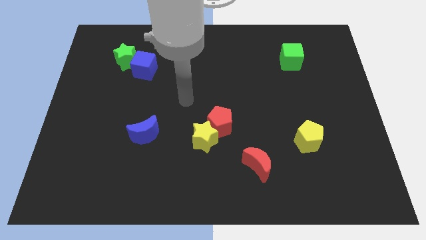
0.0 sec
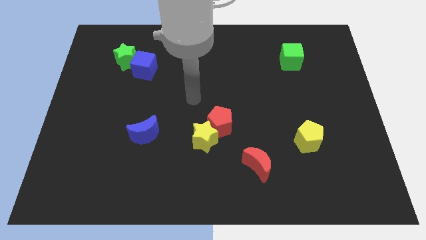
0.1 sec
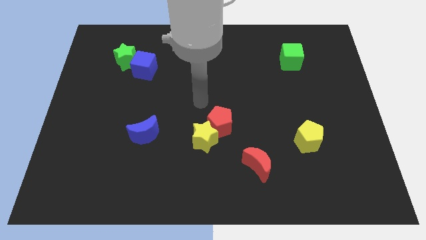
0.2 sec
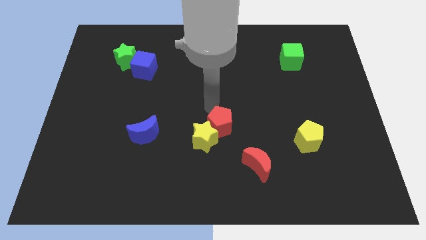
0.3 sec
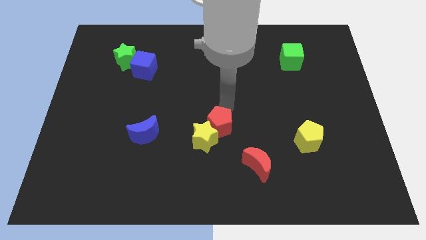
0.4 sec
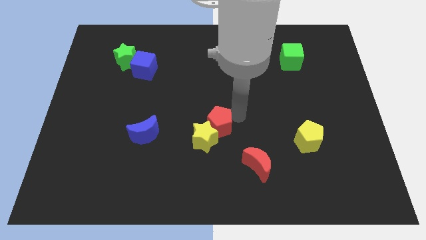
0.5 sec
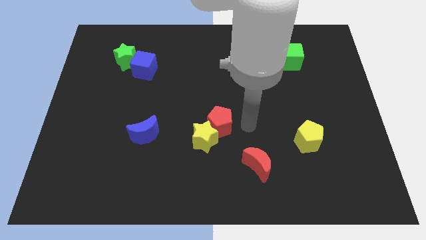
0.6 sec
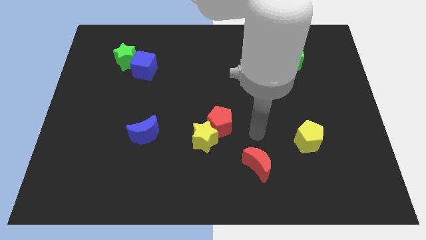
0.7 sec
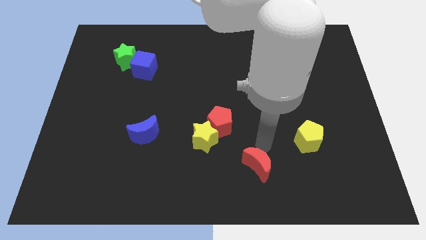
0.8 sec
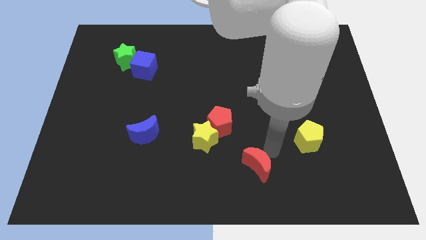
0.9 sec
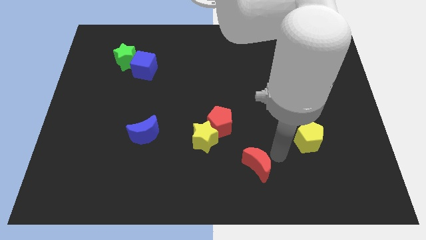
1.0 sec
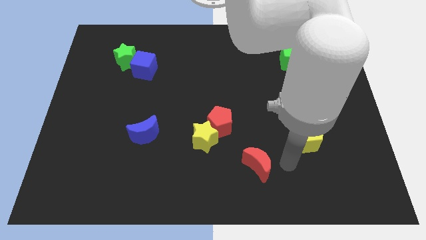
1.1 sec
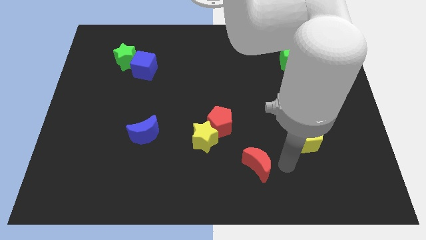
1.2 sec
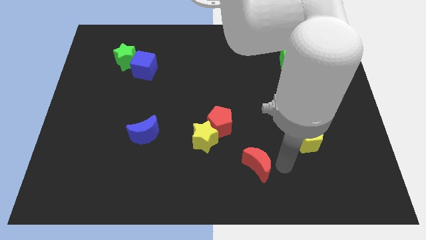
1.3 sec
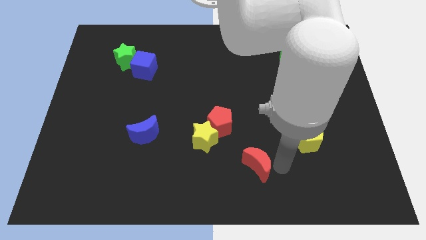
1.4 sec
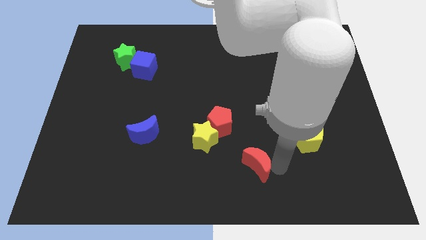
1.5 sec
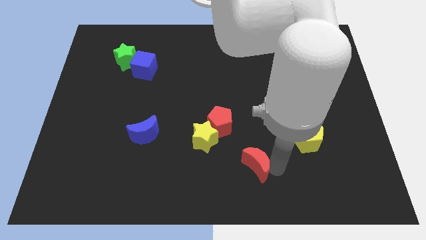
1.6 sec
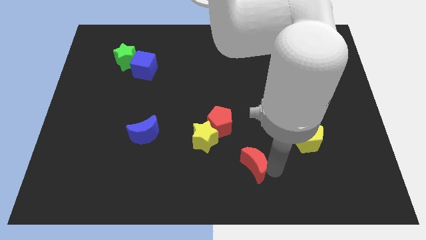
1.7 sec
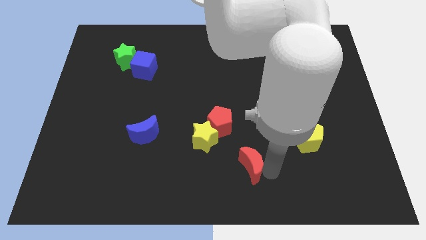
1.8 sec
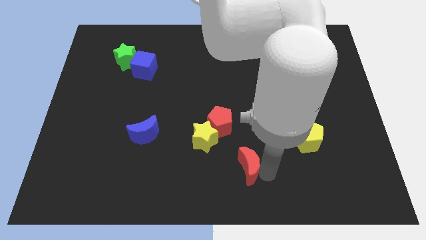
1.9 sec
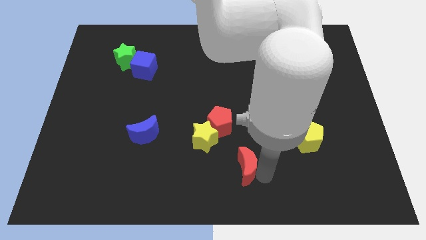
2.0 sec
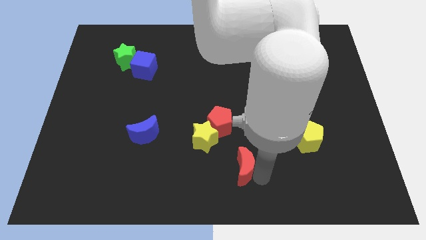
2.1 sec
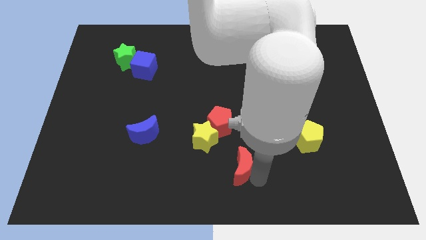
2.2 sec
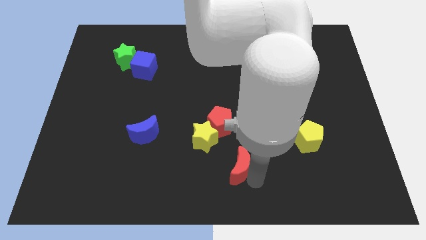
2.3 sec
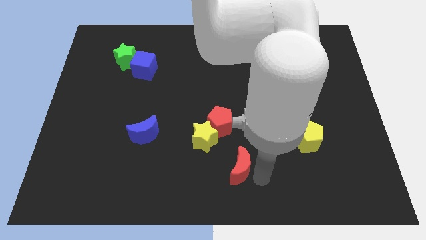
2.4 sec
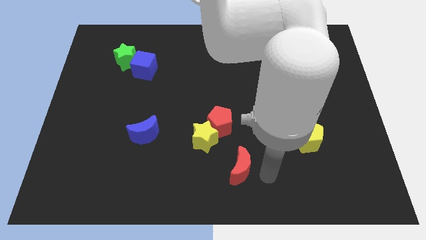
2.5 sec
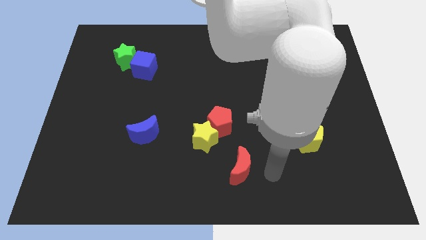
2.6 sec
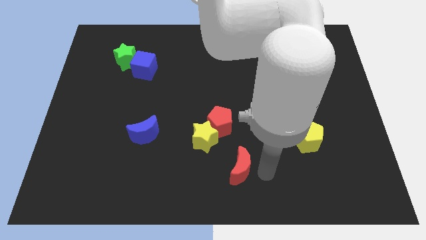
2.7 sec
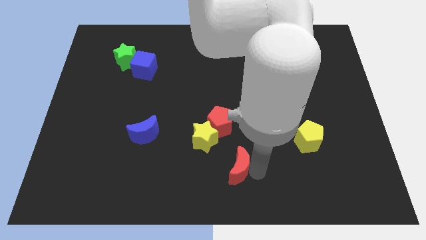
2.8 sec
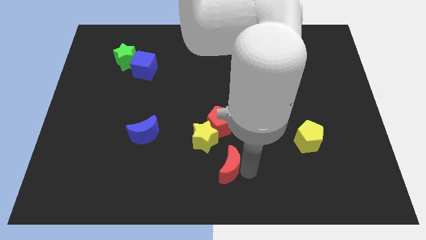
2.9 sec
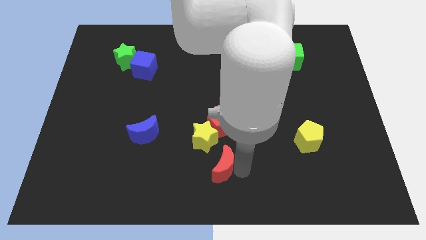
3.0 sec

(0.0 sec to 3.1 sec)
slide the red moon to the left somewhat

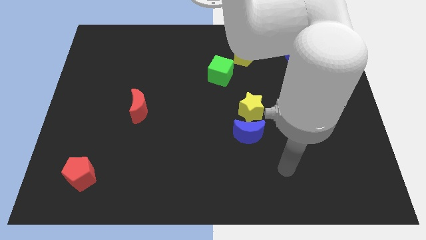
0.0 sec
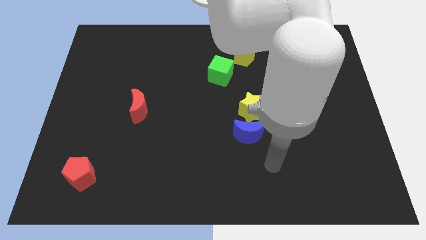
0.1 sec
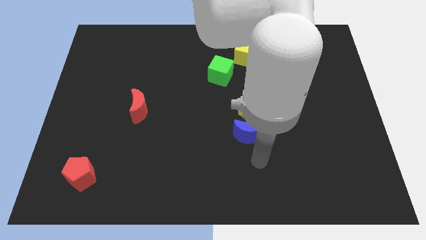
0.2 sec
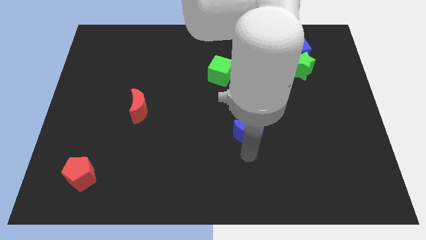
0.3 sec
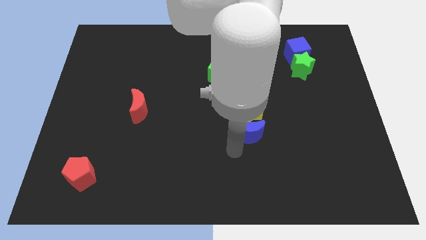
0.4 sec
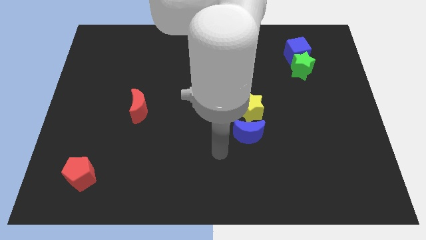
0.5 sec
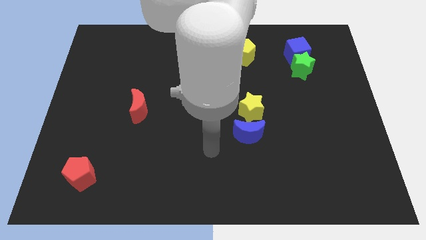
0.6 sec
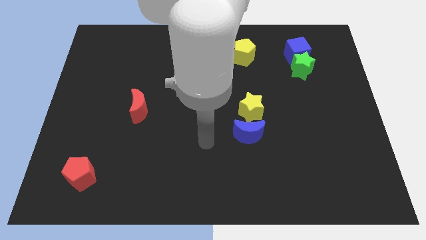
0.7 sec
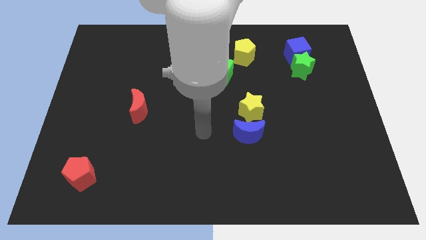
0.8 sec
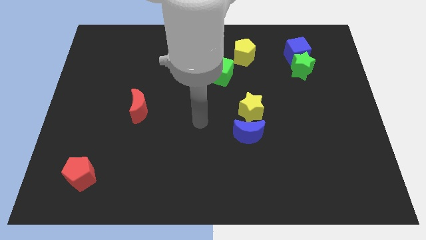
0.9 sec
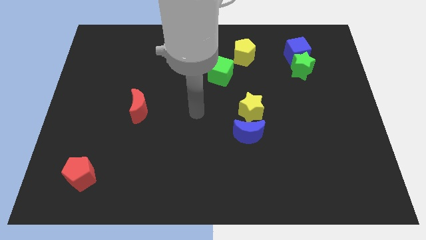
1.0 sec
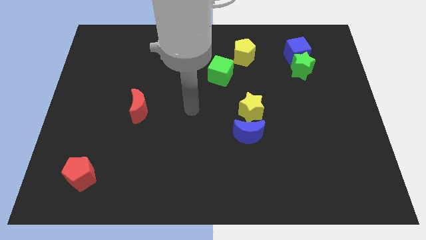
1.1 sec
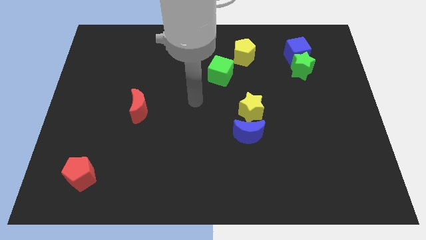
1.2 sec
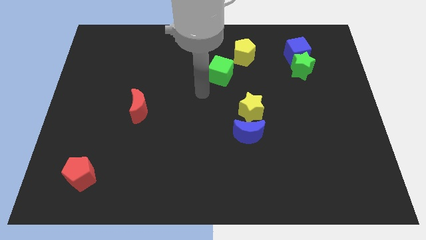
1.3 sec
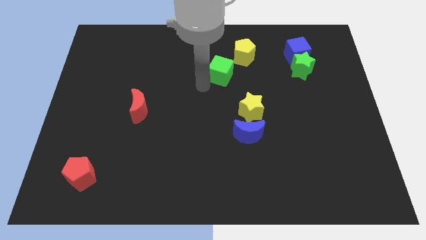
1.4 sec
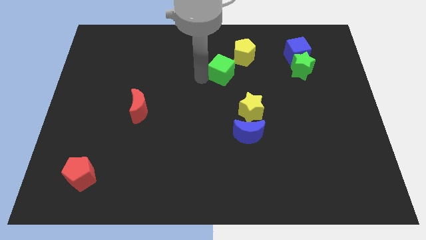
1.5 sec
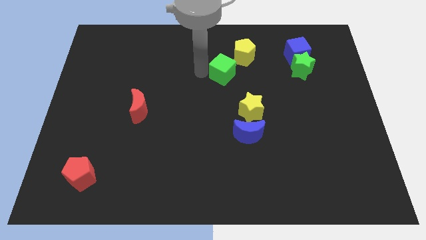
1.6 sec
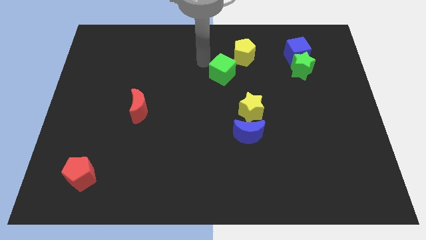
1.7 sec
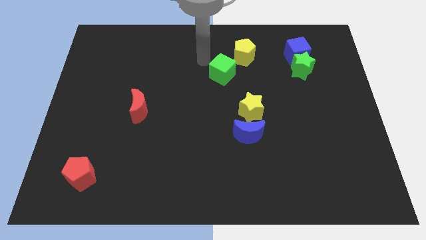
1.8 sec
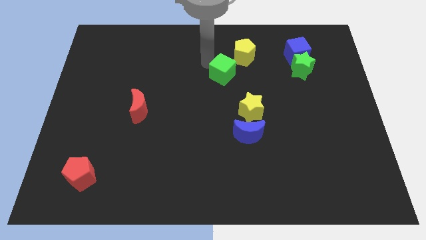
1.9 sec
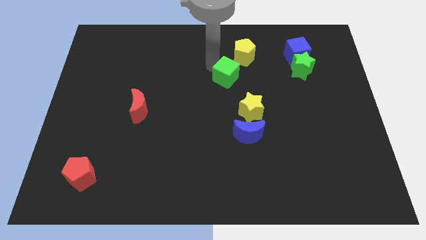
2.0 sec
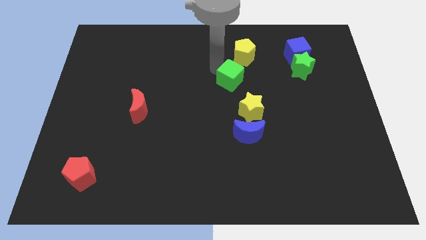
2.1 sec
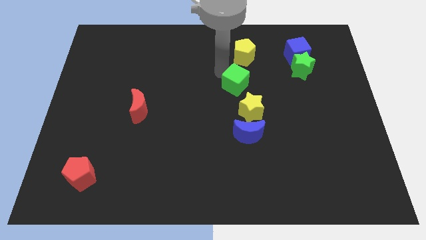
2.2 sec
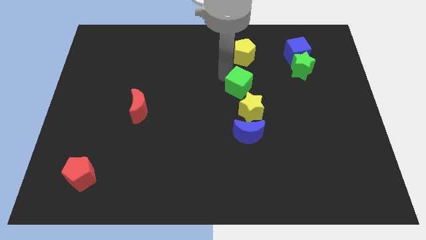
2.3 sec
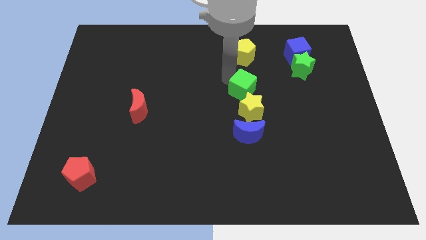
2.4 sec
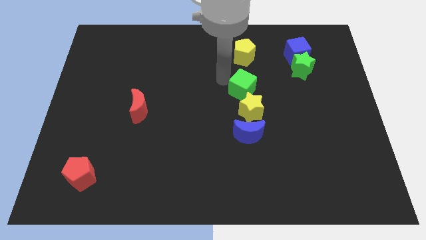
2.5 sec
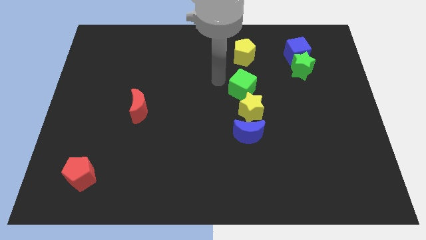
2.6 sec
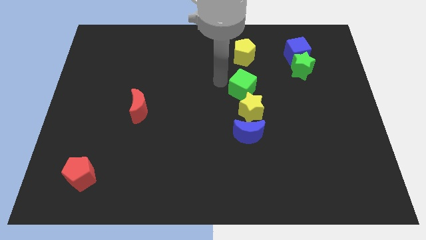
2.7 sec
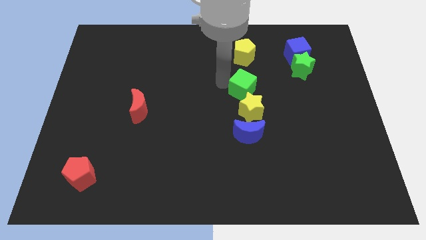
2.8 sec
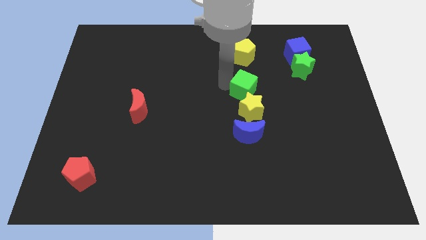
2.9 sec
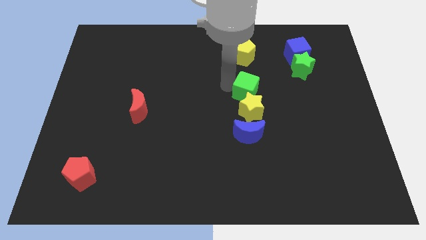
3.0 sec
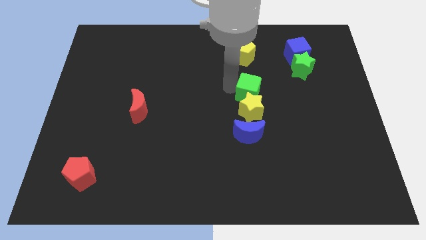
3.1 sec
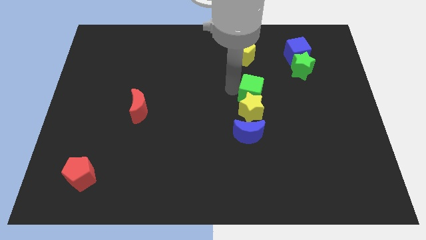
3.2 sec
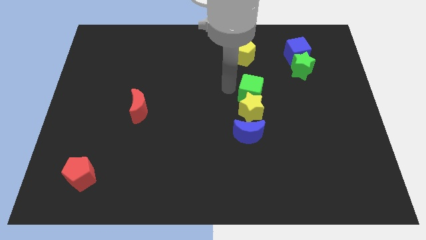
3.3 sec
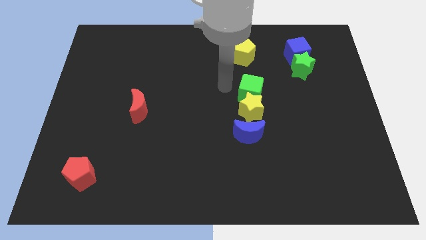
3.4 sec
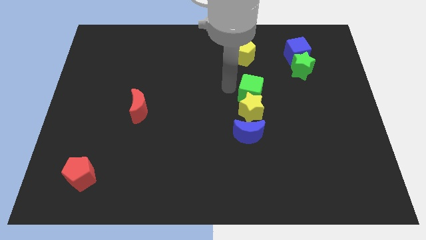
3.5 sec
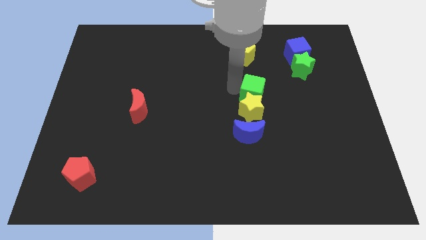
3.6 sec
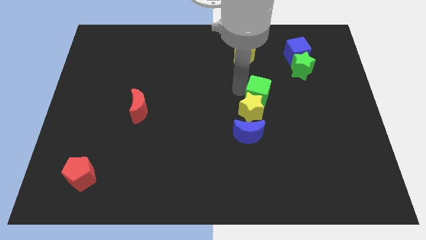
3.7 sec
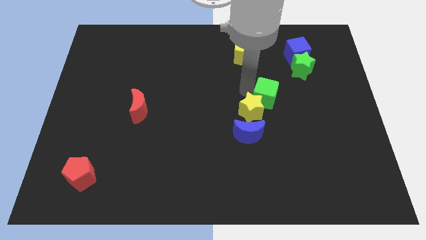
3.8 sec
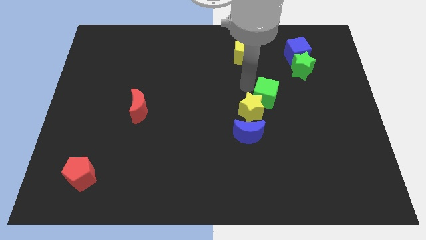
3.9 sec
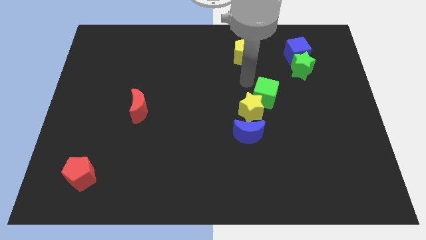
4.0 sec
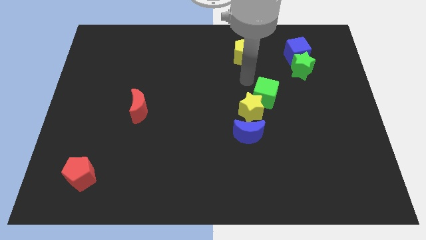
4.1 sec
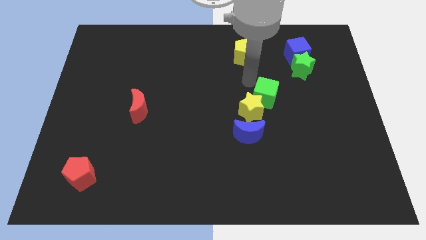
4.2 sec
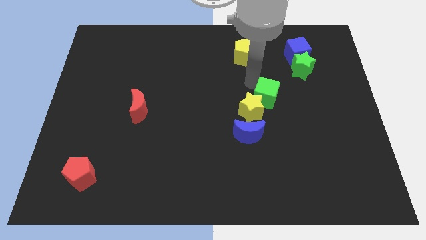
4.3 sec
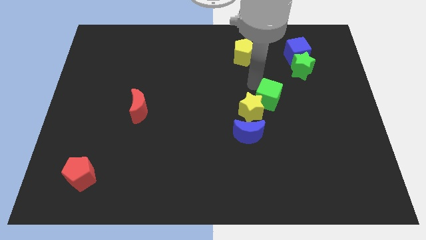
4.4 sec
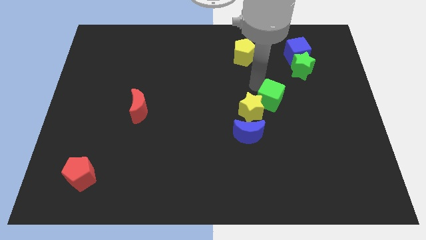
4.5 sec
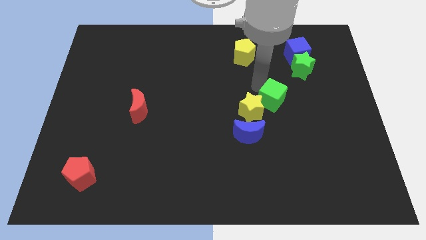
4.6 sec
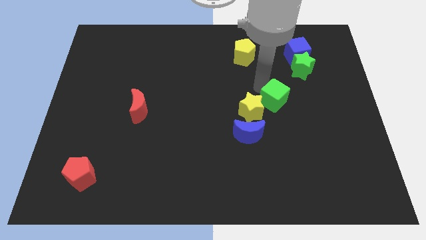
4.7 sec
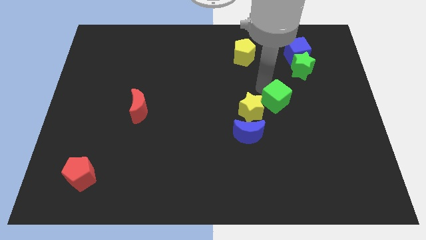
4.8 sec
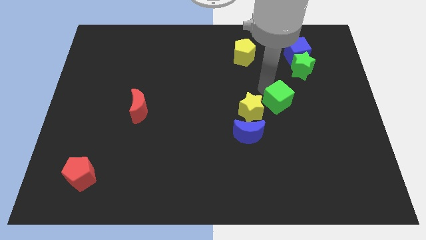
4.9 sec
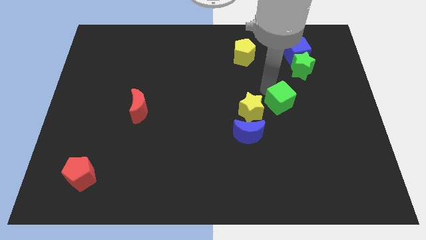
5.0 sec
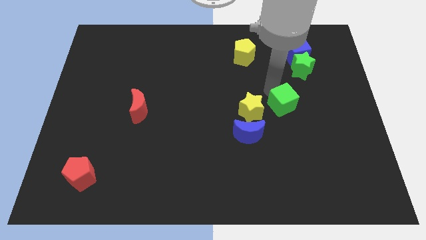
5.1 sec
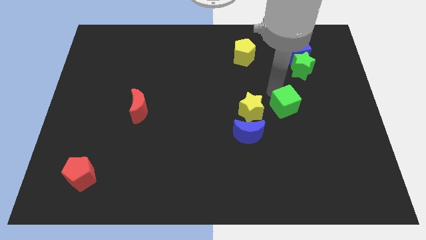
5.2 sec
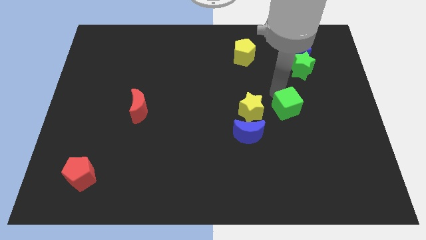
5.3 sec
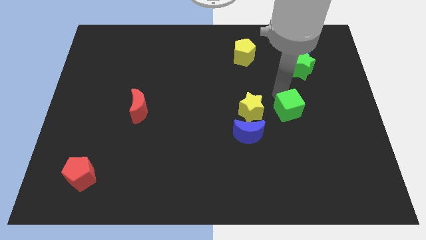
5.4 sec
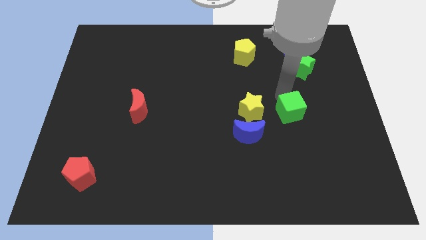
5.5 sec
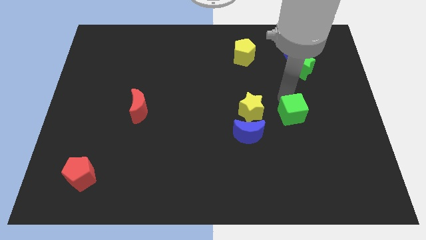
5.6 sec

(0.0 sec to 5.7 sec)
push the green cube down and right
